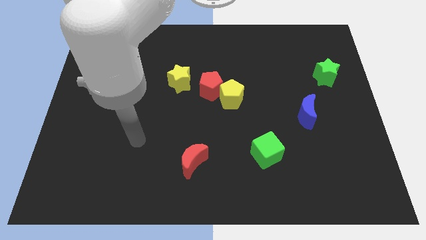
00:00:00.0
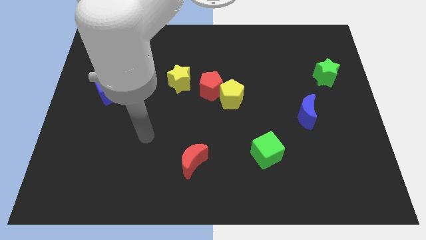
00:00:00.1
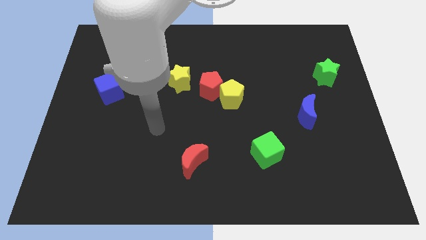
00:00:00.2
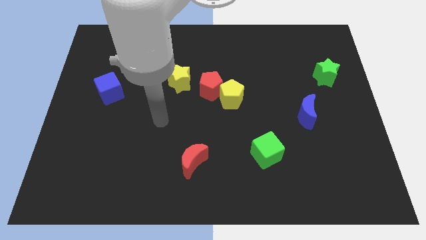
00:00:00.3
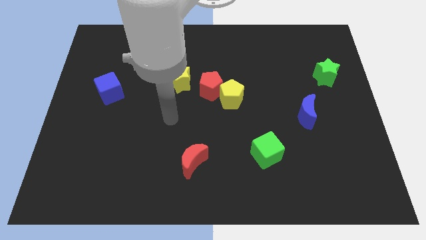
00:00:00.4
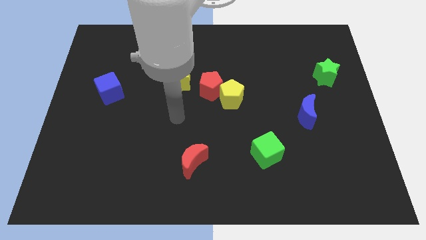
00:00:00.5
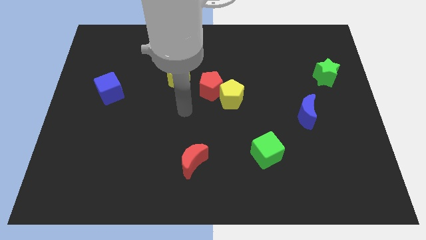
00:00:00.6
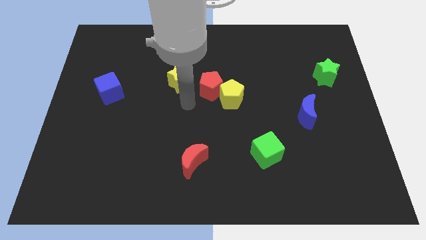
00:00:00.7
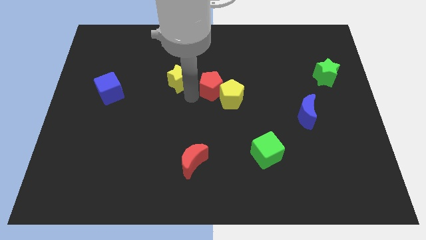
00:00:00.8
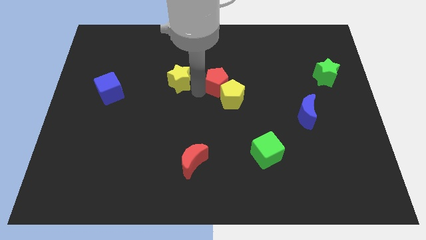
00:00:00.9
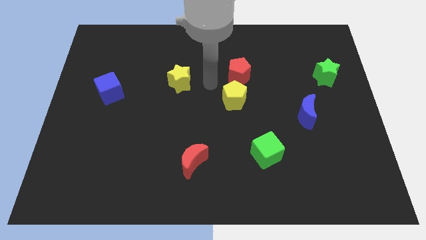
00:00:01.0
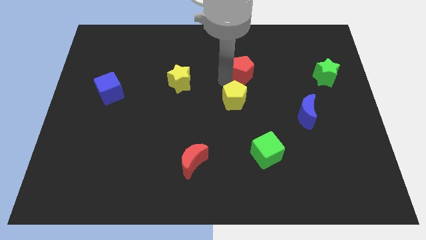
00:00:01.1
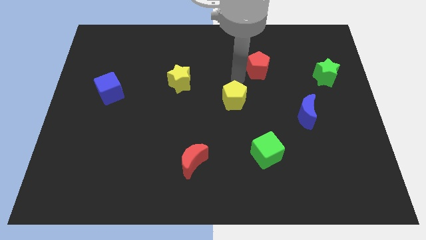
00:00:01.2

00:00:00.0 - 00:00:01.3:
pull the yellow pentagon apart from the red pentagon

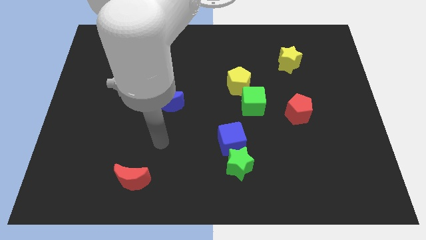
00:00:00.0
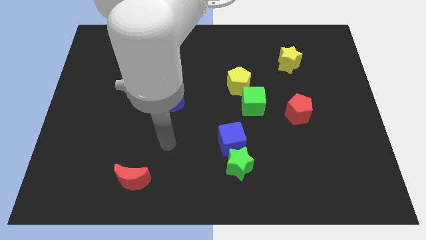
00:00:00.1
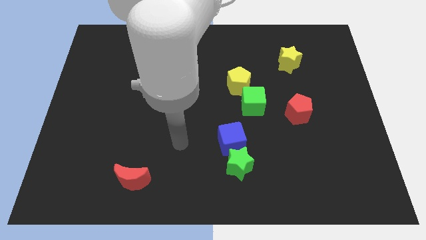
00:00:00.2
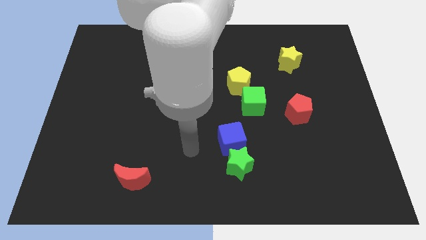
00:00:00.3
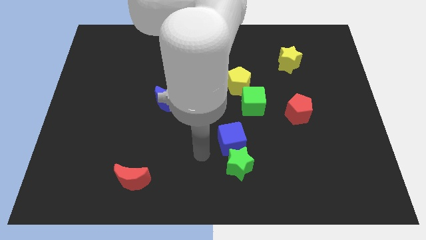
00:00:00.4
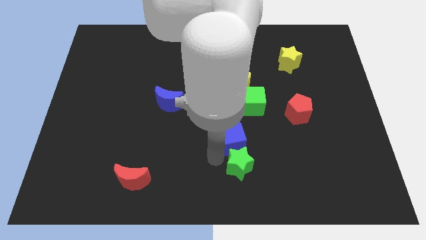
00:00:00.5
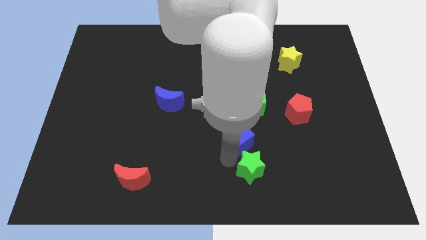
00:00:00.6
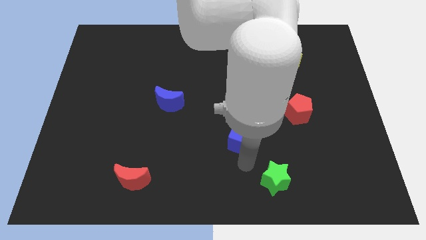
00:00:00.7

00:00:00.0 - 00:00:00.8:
separate the blue cube from the green star

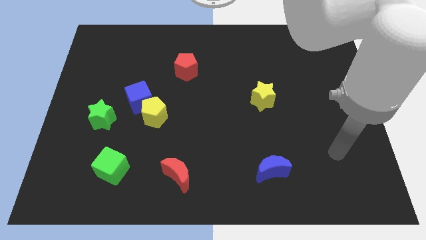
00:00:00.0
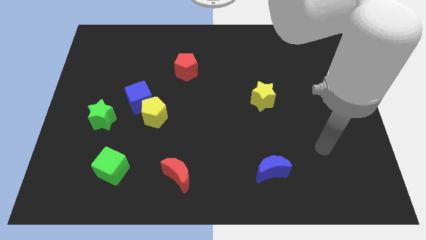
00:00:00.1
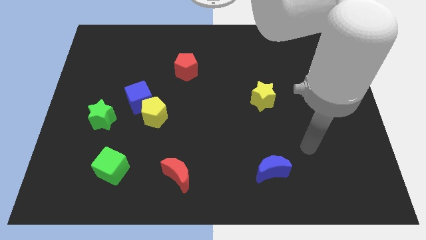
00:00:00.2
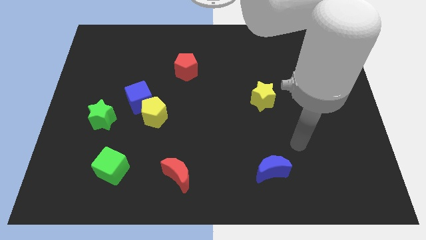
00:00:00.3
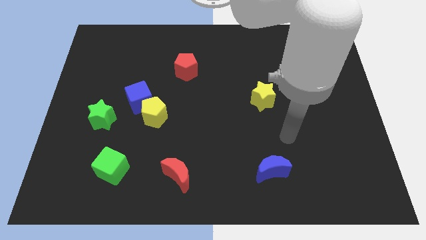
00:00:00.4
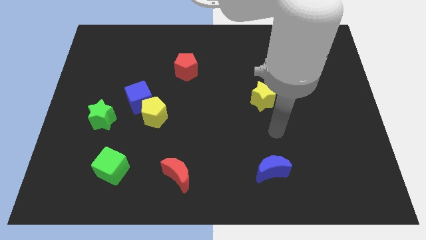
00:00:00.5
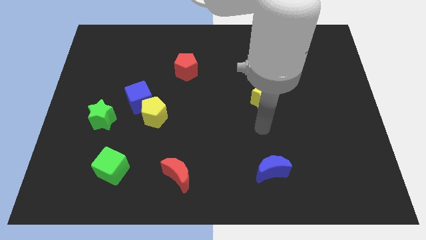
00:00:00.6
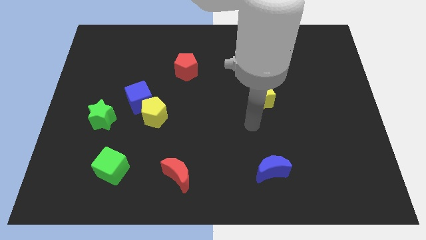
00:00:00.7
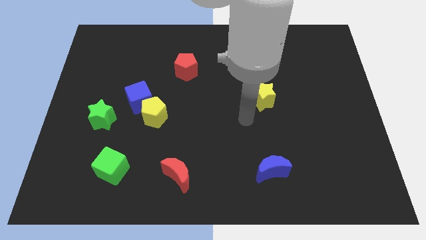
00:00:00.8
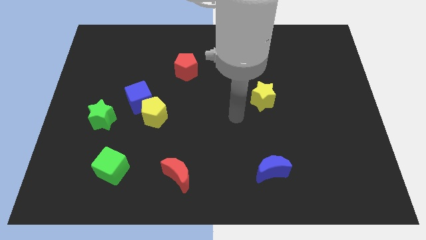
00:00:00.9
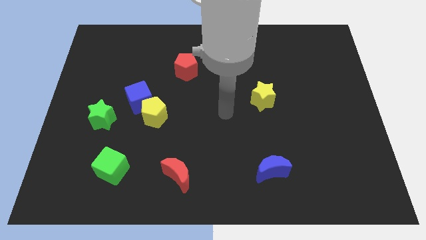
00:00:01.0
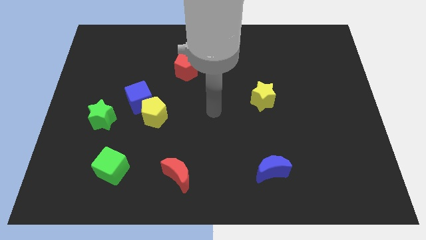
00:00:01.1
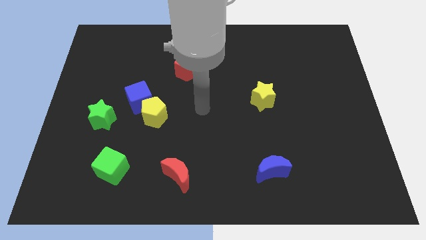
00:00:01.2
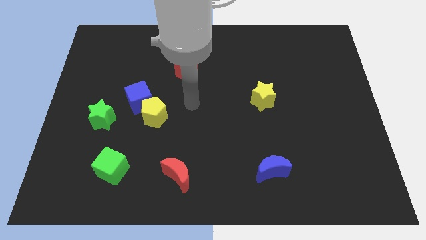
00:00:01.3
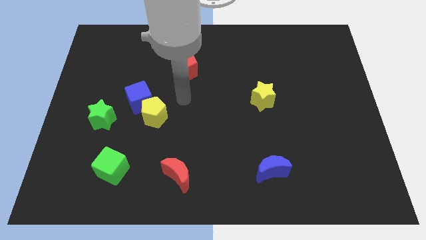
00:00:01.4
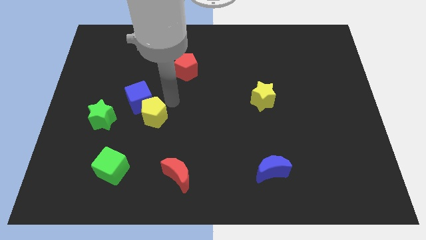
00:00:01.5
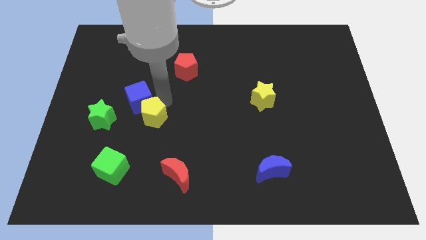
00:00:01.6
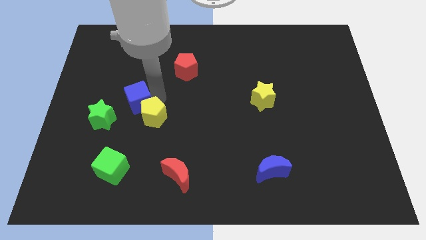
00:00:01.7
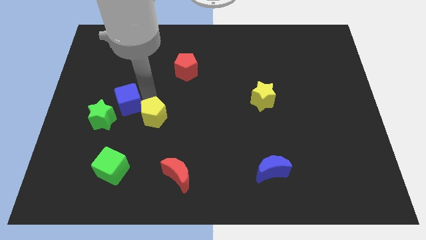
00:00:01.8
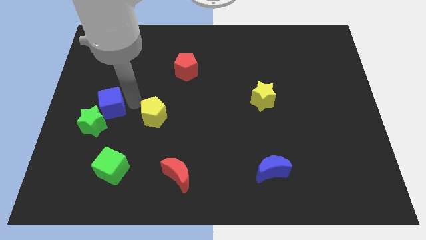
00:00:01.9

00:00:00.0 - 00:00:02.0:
separate the yellow pentagon from the blue cube

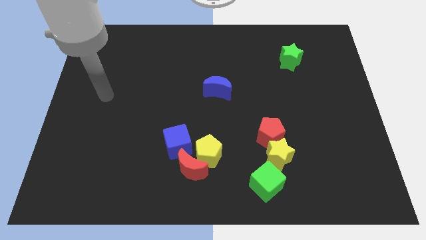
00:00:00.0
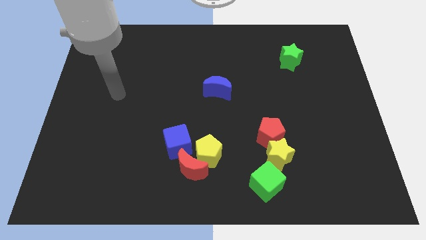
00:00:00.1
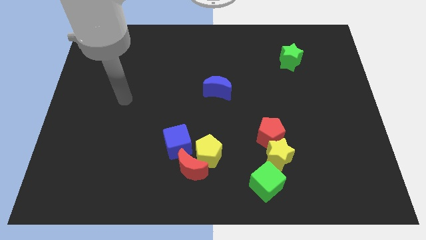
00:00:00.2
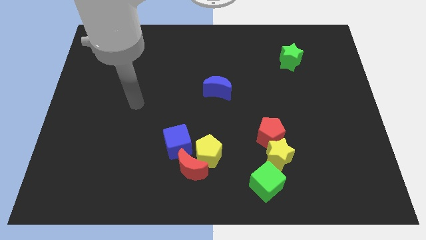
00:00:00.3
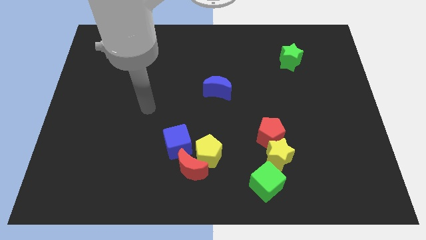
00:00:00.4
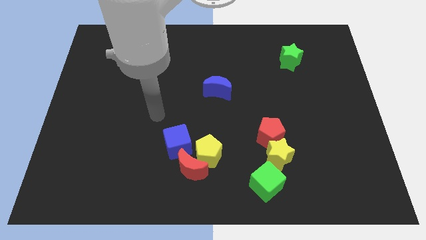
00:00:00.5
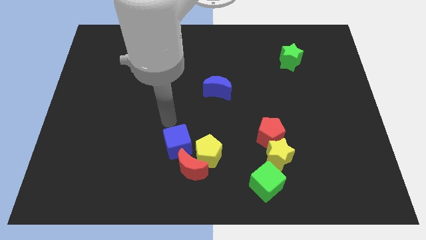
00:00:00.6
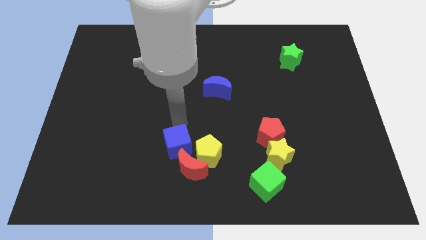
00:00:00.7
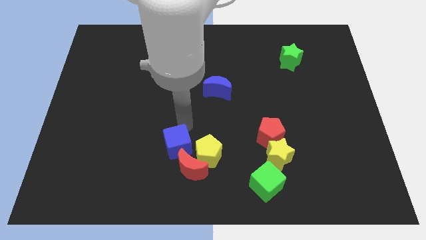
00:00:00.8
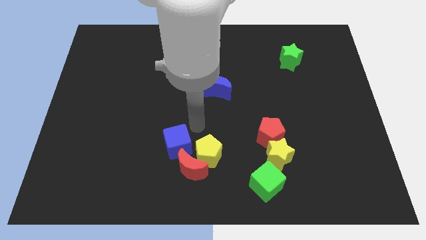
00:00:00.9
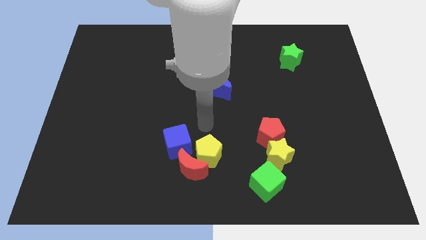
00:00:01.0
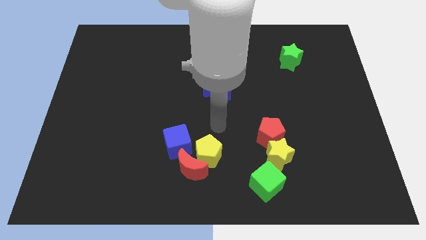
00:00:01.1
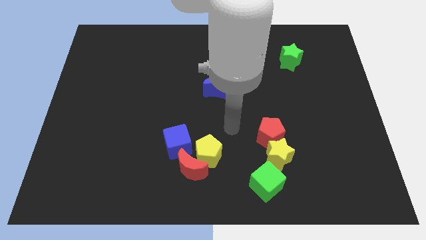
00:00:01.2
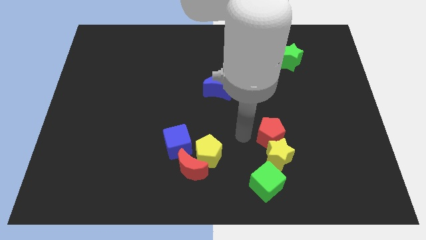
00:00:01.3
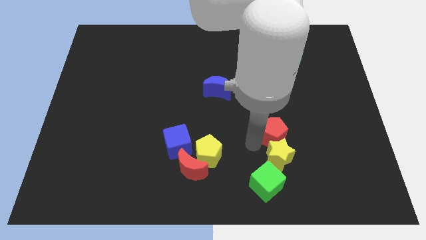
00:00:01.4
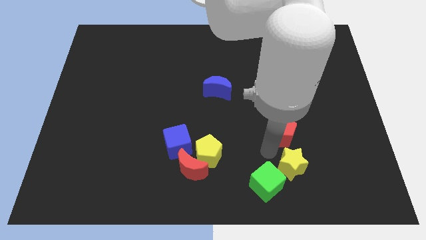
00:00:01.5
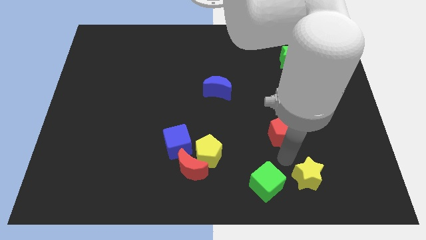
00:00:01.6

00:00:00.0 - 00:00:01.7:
pull the red pentagon apart from the yellow star

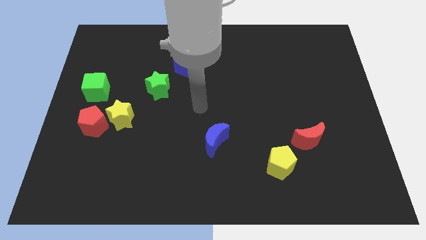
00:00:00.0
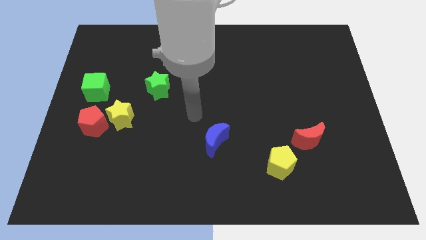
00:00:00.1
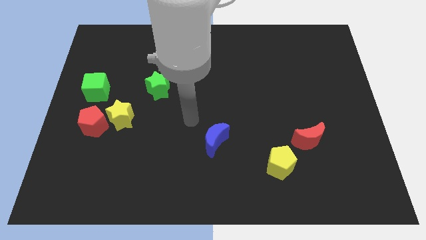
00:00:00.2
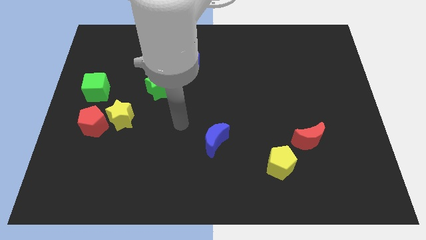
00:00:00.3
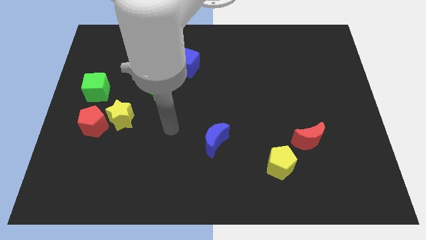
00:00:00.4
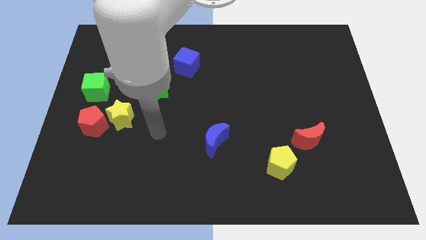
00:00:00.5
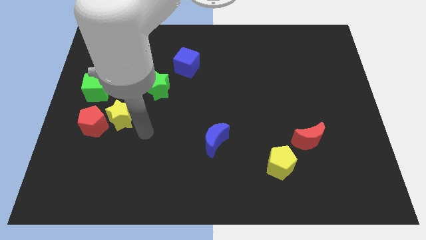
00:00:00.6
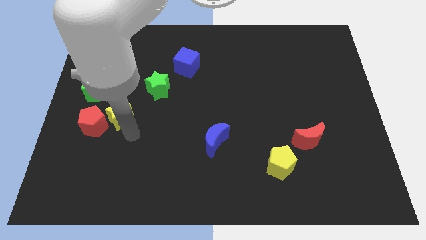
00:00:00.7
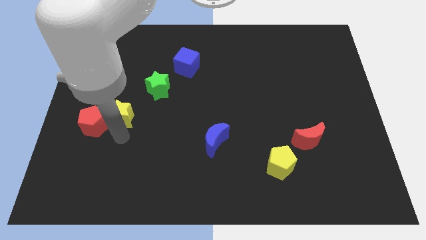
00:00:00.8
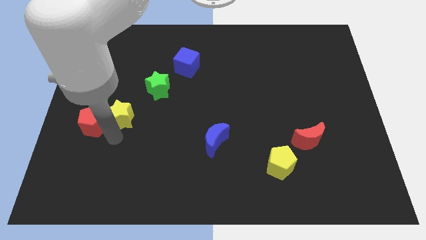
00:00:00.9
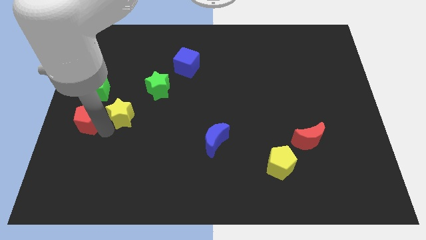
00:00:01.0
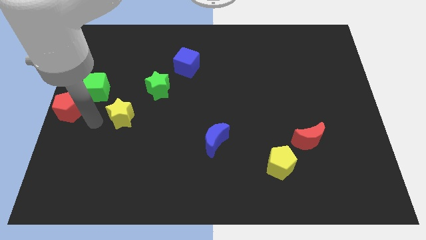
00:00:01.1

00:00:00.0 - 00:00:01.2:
move the yellow star away from the red pentagon

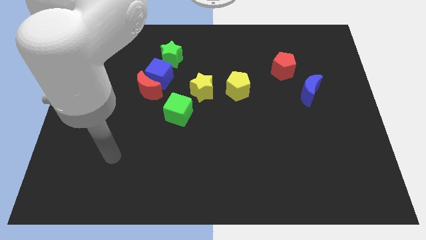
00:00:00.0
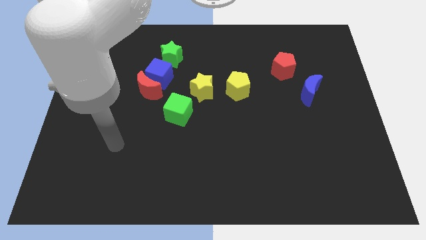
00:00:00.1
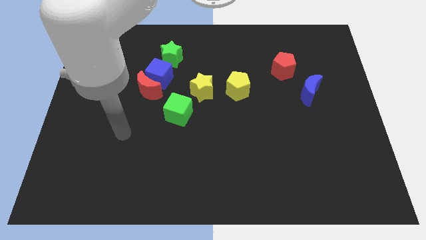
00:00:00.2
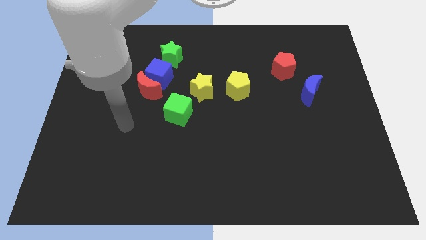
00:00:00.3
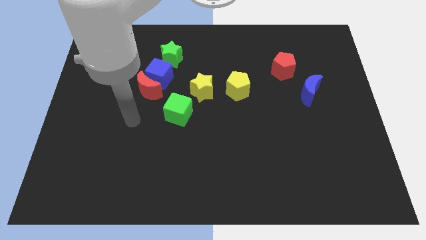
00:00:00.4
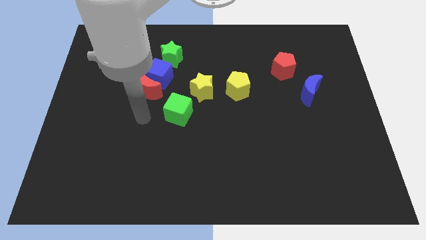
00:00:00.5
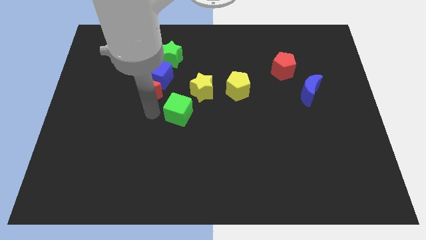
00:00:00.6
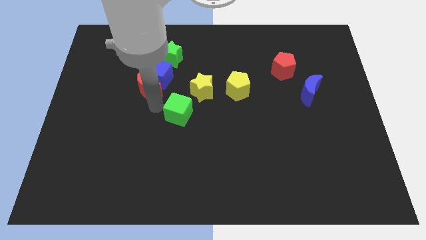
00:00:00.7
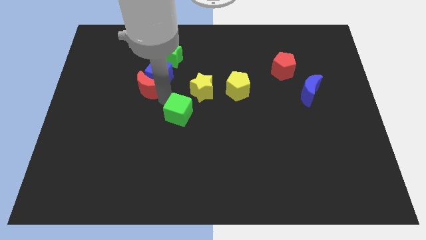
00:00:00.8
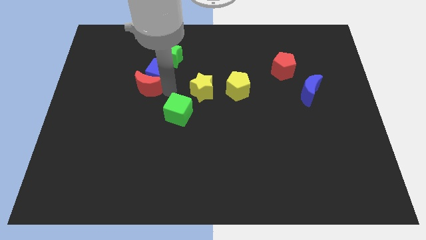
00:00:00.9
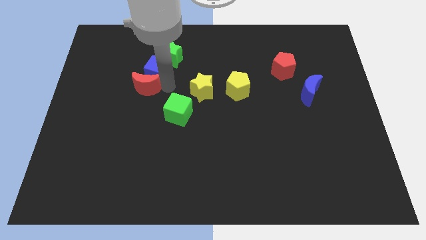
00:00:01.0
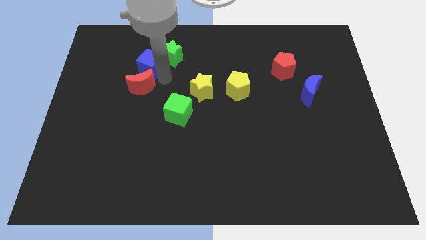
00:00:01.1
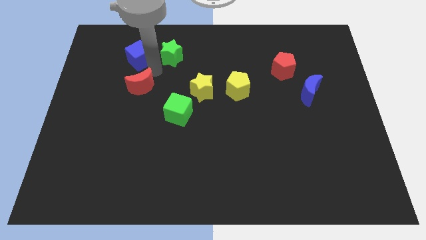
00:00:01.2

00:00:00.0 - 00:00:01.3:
separate the red moon from the blue cube

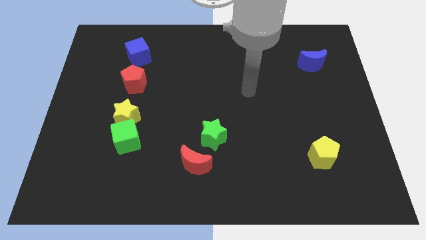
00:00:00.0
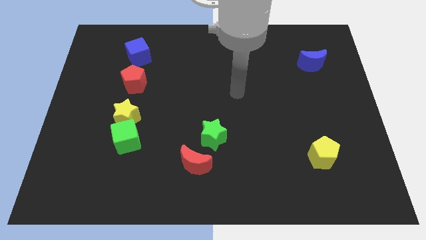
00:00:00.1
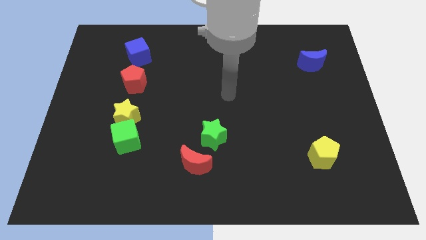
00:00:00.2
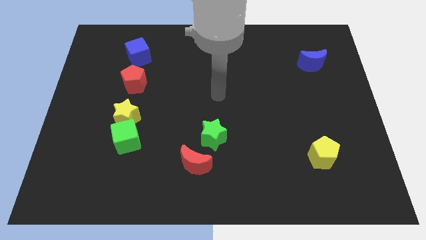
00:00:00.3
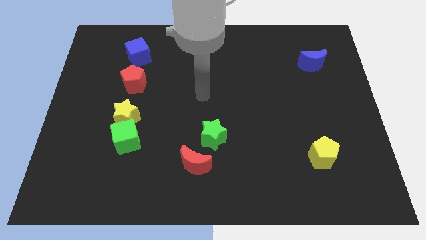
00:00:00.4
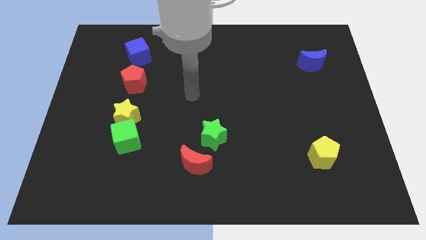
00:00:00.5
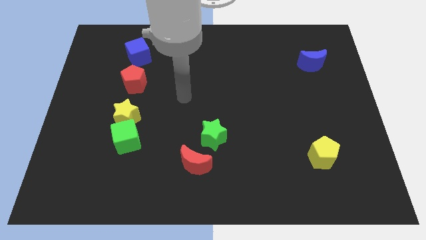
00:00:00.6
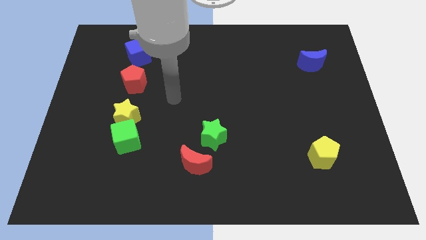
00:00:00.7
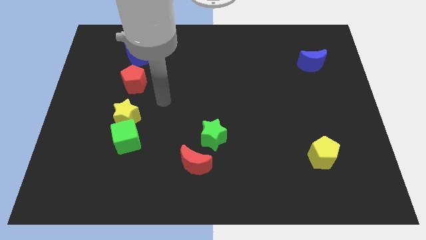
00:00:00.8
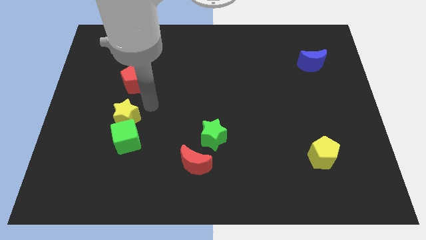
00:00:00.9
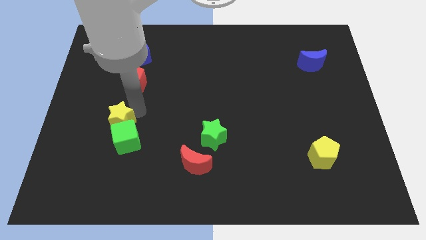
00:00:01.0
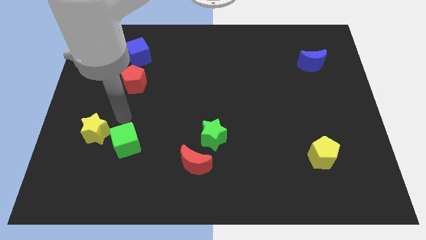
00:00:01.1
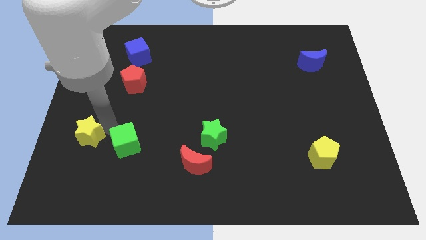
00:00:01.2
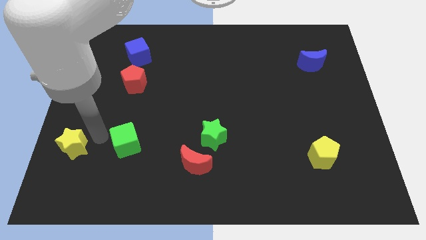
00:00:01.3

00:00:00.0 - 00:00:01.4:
pull the green cube apart from the yellow star
